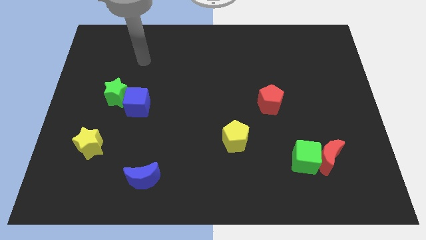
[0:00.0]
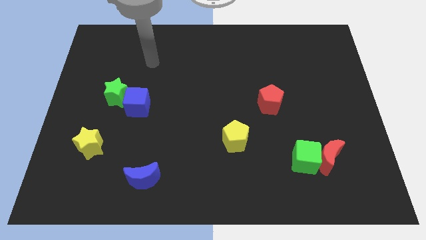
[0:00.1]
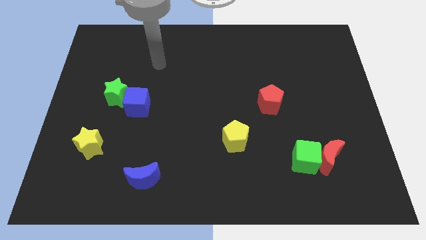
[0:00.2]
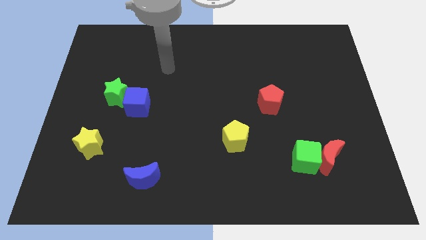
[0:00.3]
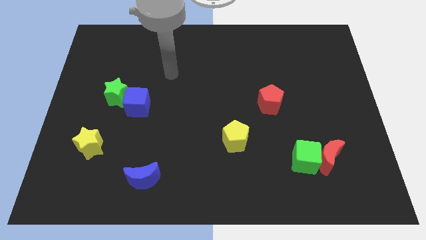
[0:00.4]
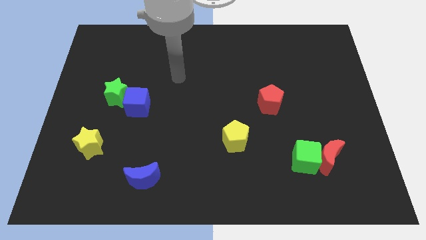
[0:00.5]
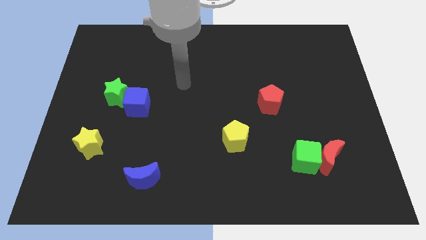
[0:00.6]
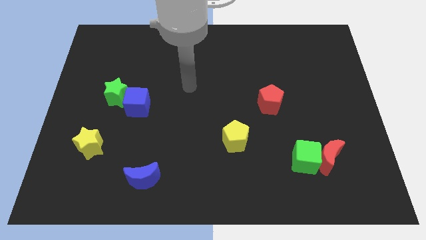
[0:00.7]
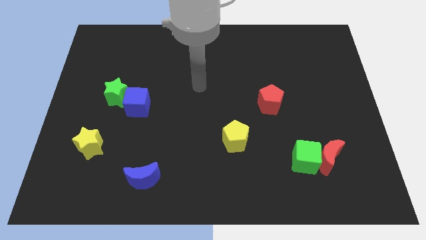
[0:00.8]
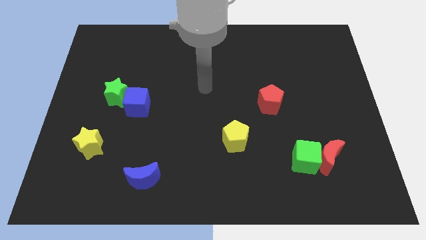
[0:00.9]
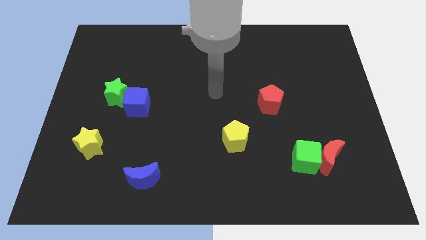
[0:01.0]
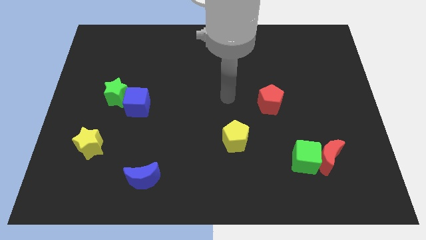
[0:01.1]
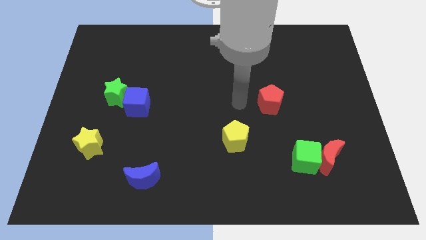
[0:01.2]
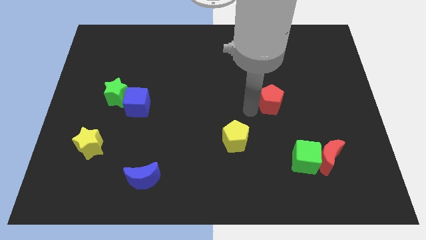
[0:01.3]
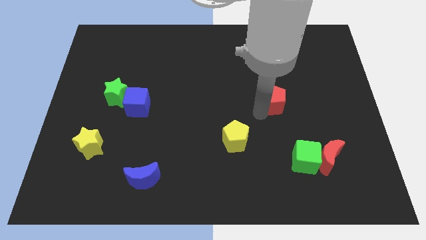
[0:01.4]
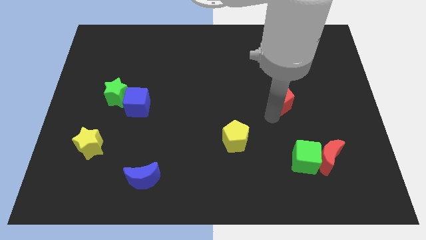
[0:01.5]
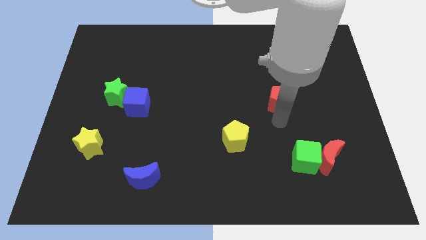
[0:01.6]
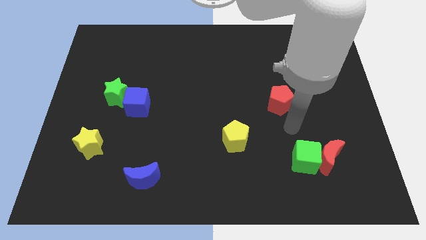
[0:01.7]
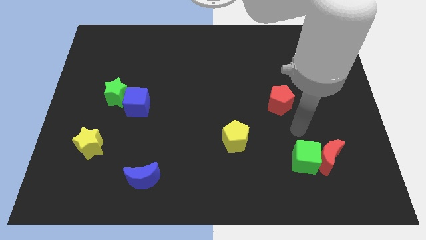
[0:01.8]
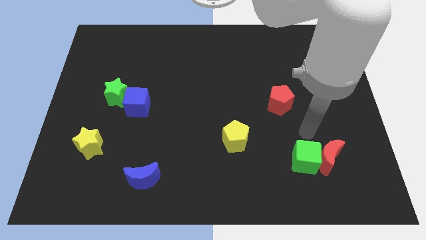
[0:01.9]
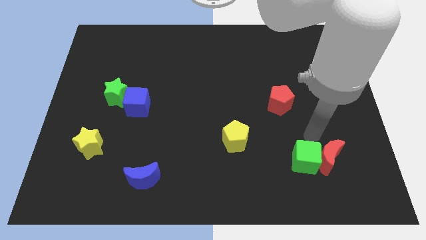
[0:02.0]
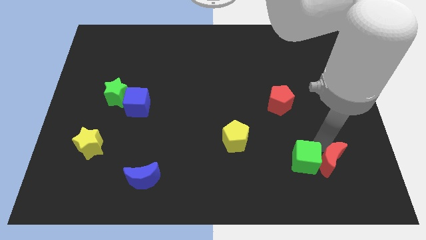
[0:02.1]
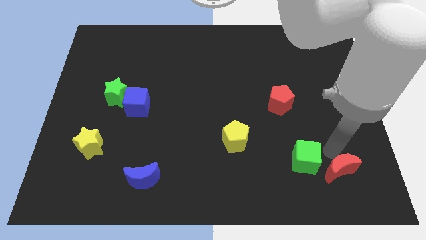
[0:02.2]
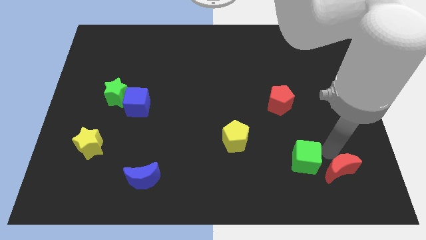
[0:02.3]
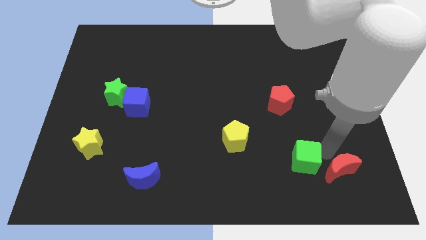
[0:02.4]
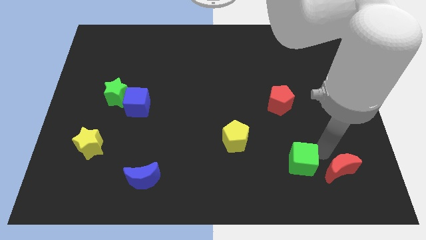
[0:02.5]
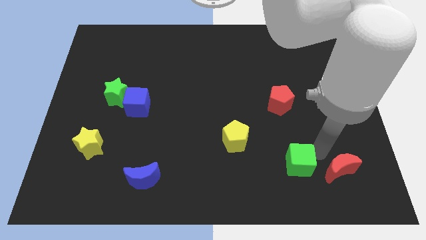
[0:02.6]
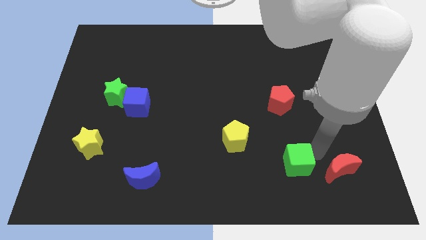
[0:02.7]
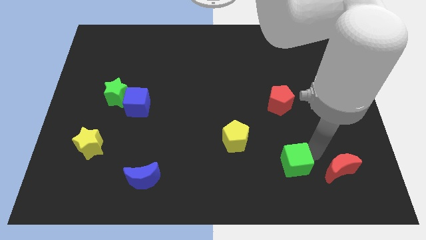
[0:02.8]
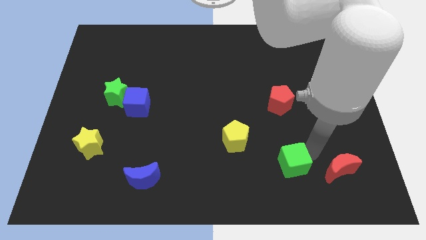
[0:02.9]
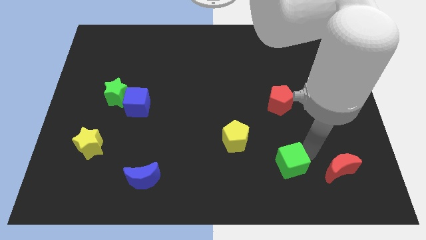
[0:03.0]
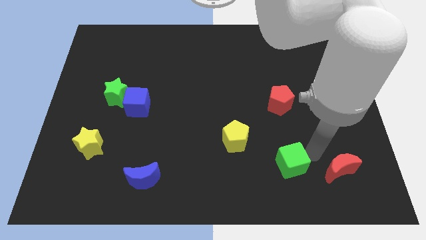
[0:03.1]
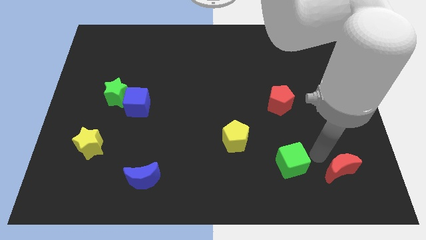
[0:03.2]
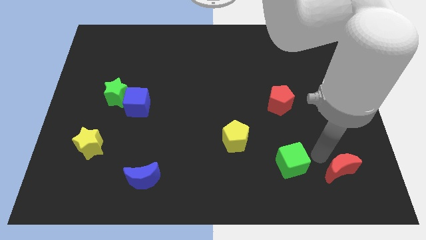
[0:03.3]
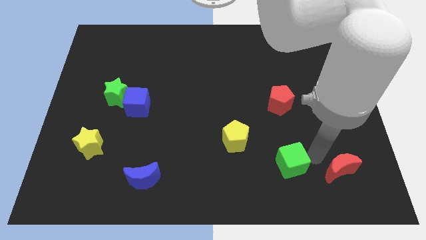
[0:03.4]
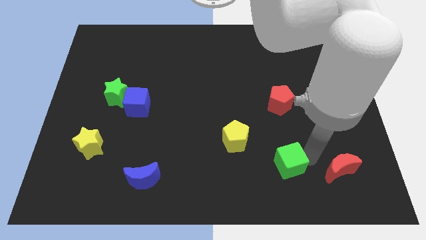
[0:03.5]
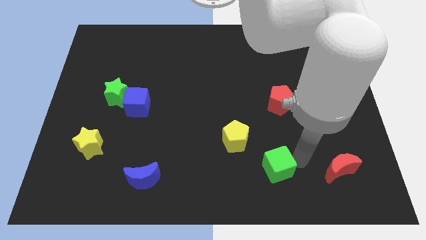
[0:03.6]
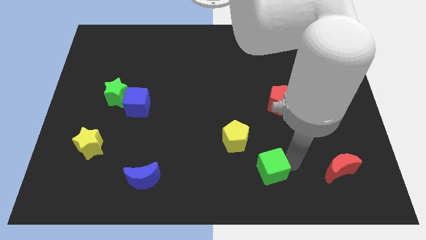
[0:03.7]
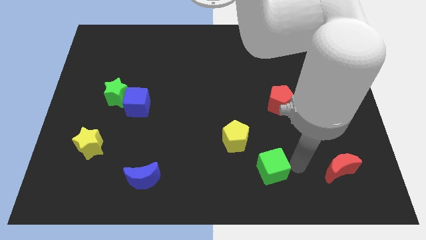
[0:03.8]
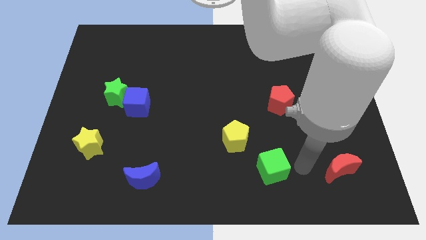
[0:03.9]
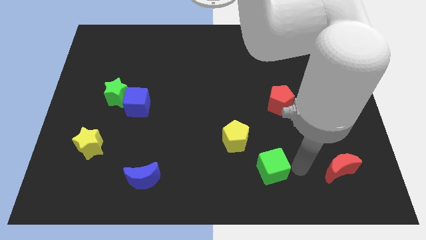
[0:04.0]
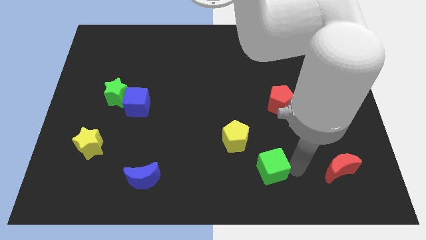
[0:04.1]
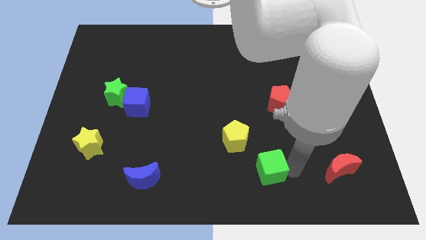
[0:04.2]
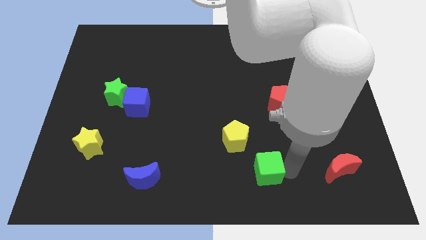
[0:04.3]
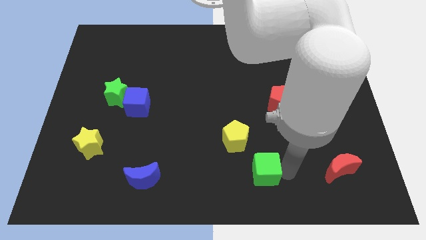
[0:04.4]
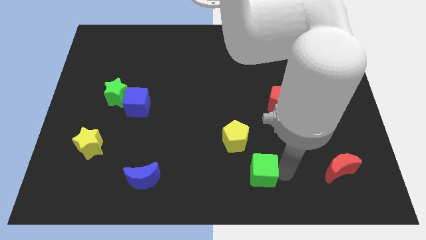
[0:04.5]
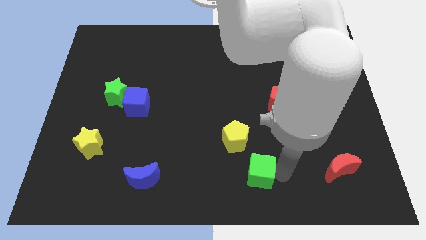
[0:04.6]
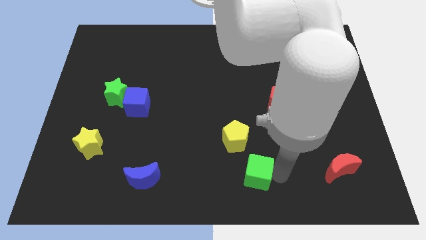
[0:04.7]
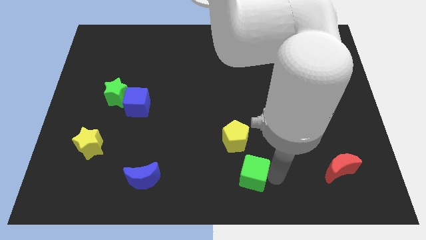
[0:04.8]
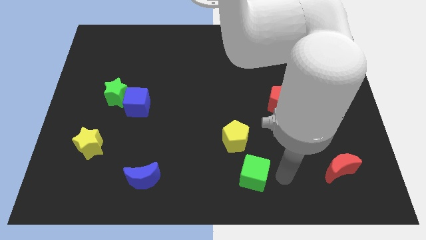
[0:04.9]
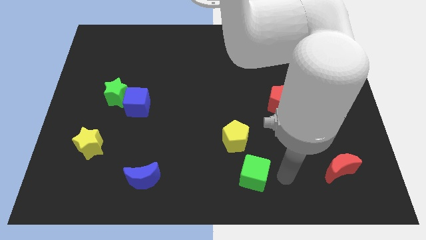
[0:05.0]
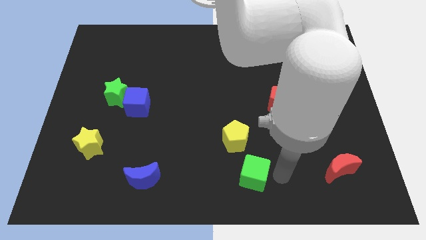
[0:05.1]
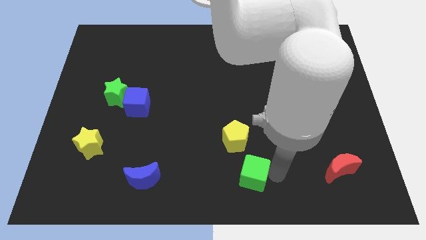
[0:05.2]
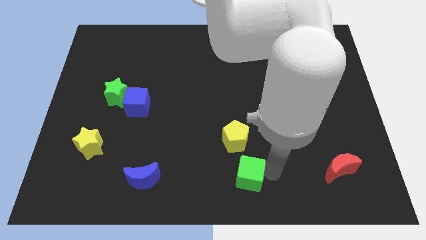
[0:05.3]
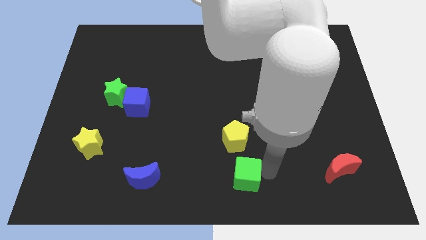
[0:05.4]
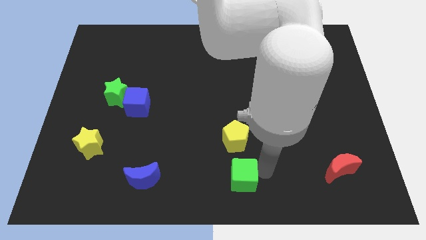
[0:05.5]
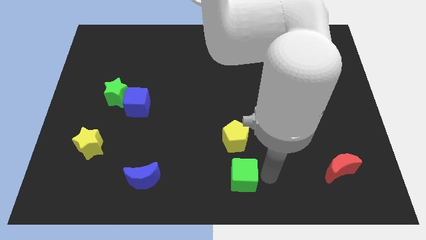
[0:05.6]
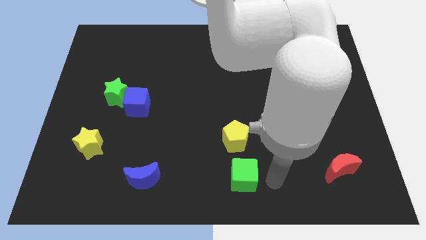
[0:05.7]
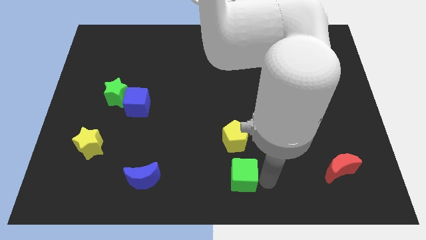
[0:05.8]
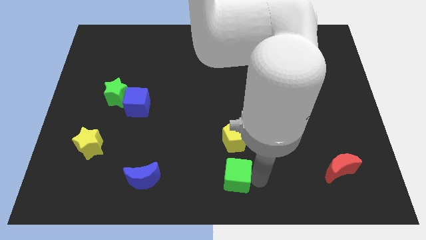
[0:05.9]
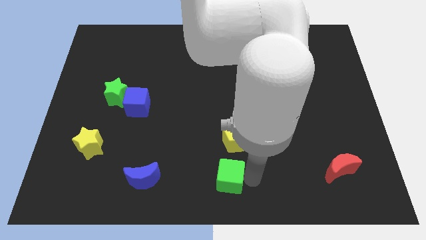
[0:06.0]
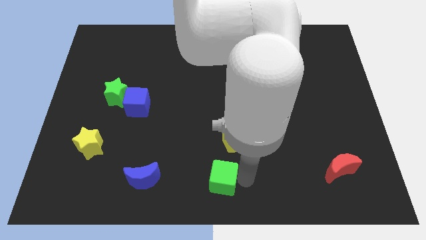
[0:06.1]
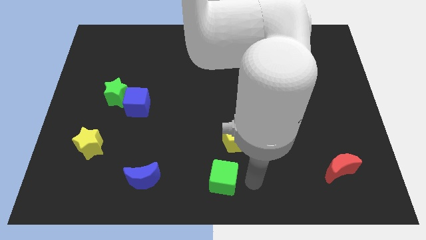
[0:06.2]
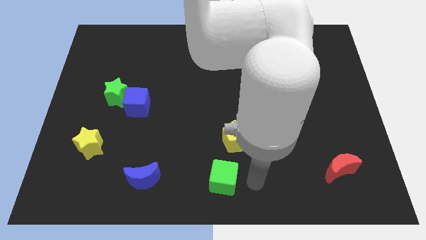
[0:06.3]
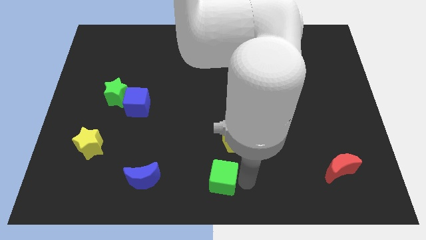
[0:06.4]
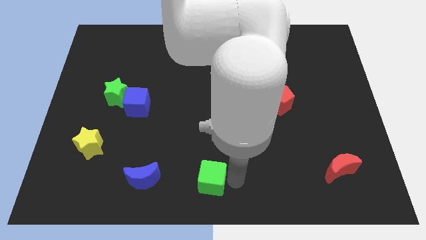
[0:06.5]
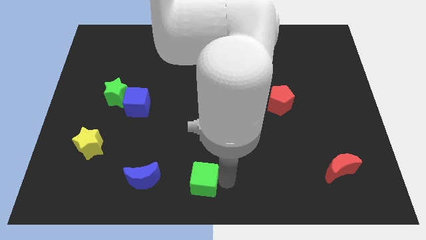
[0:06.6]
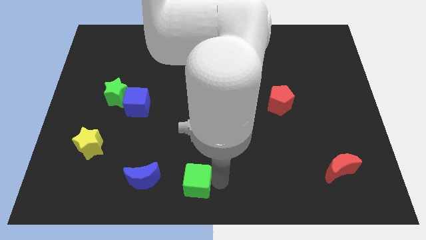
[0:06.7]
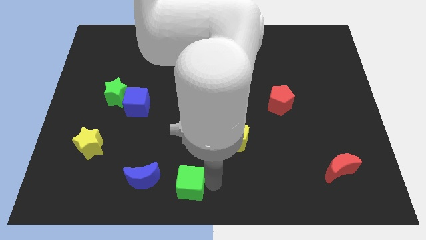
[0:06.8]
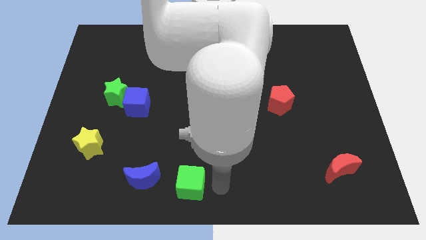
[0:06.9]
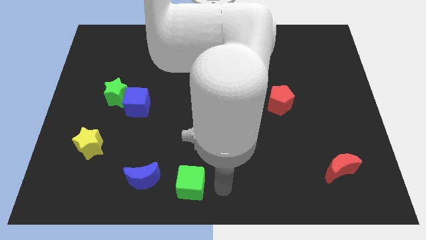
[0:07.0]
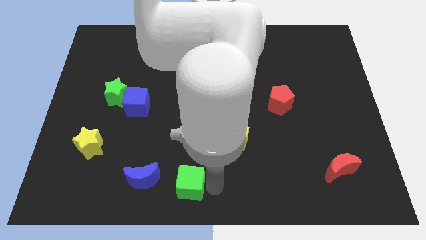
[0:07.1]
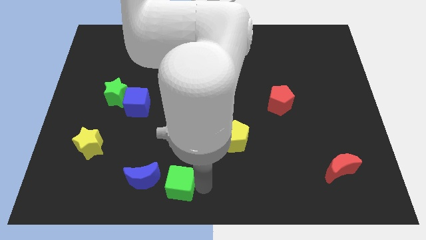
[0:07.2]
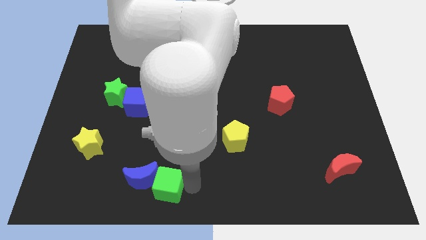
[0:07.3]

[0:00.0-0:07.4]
push the green cube to the blue moon
